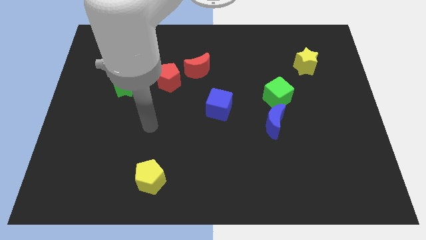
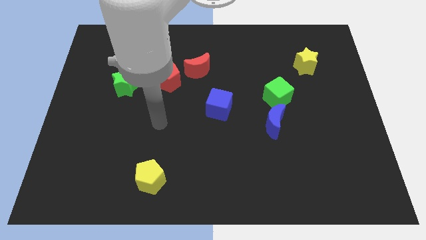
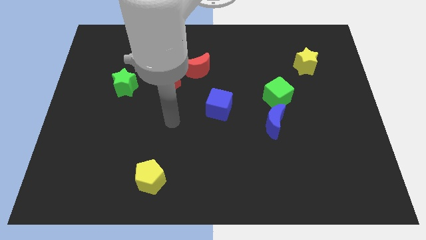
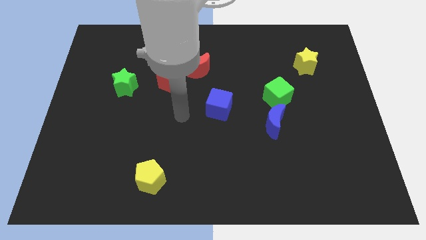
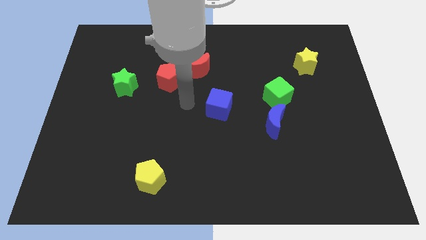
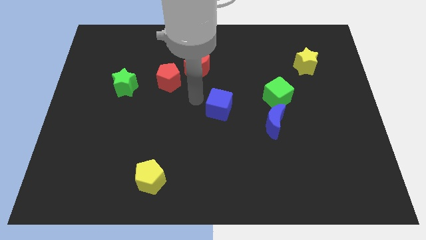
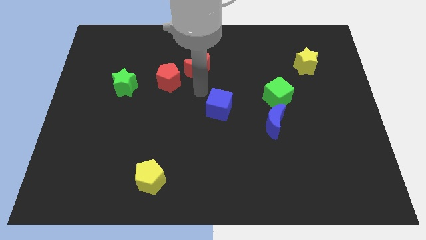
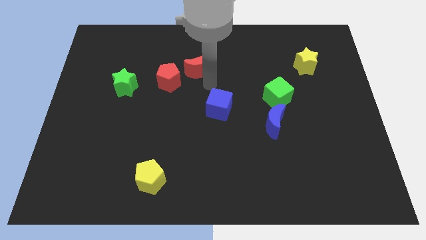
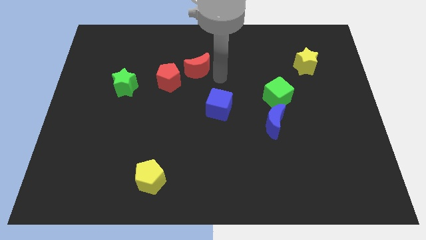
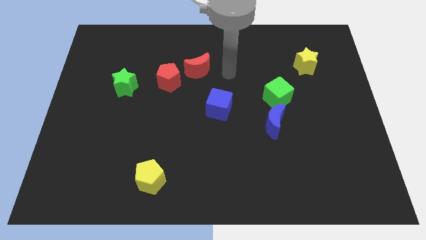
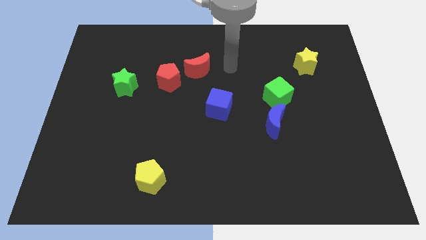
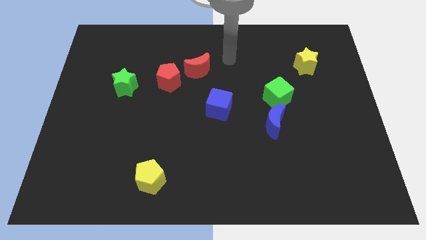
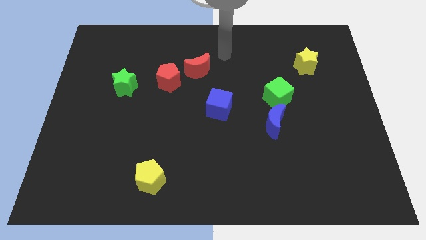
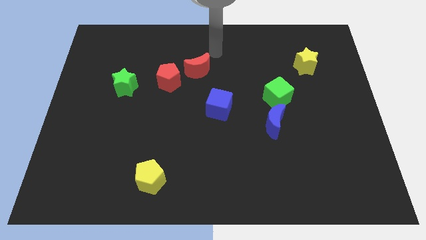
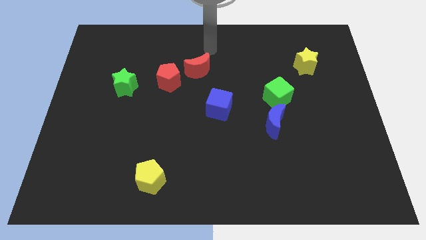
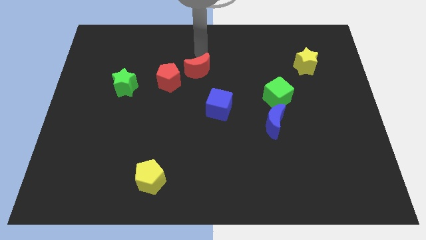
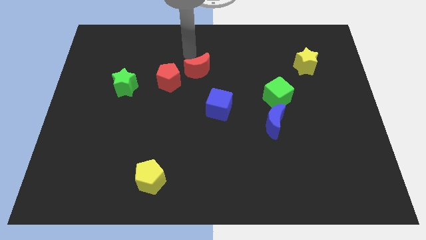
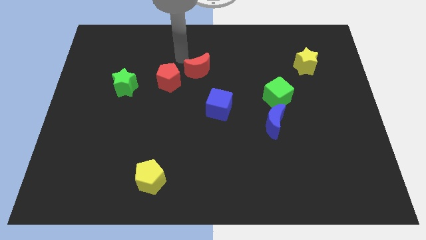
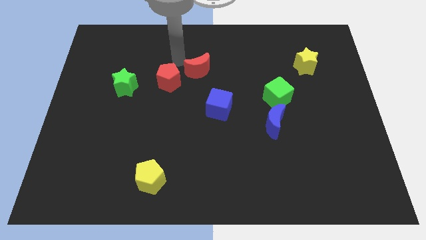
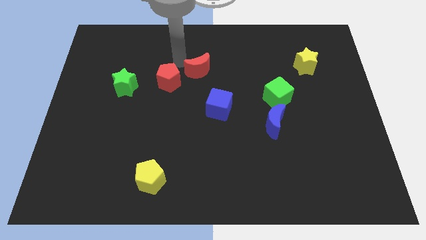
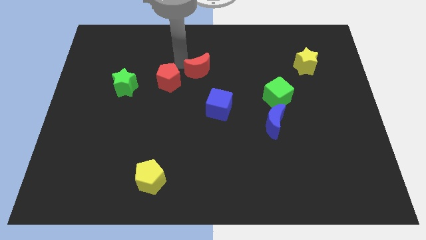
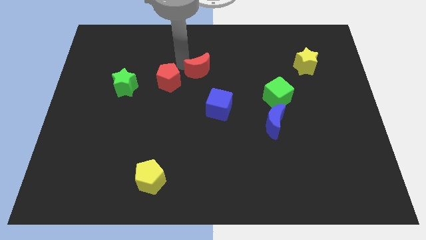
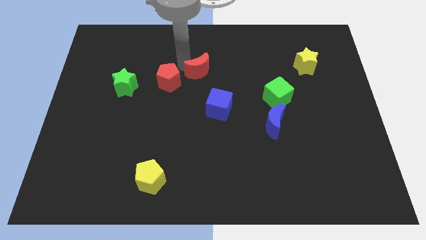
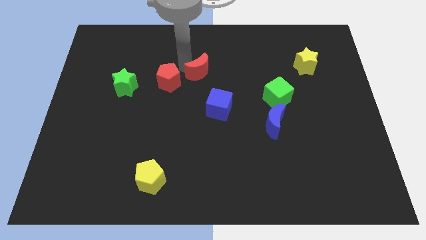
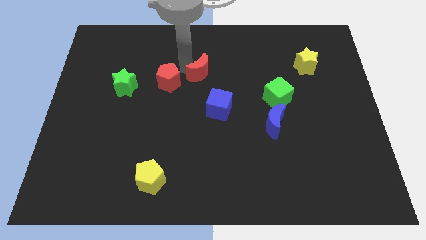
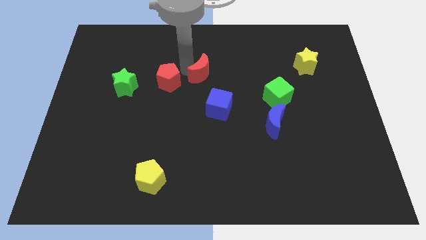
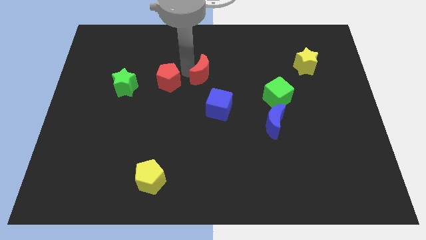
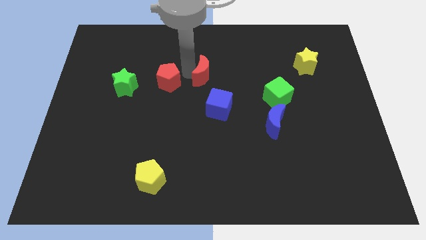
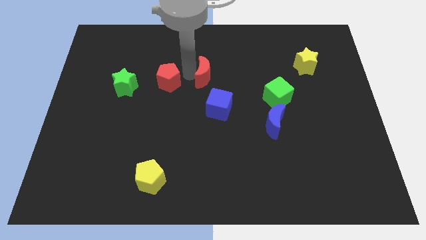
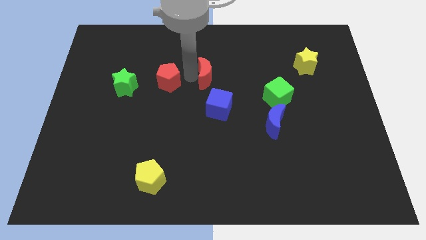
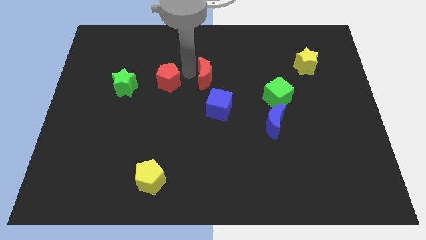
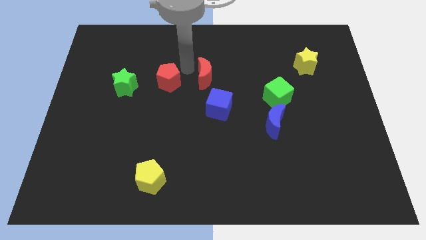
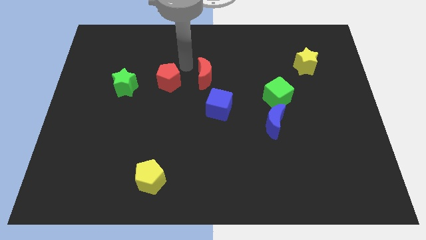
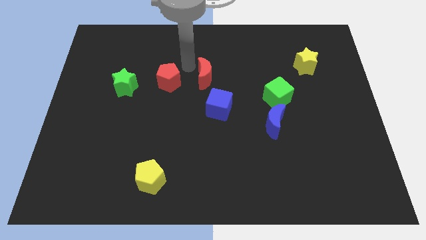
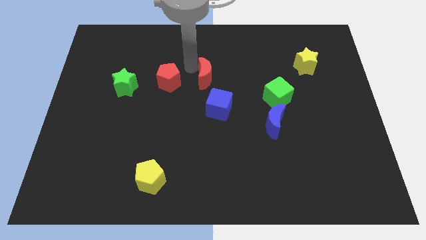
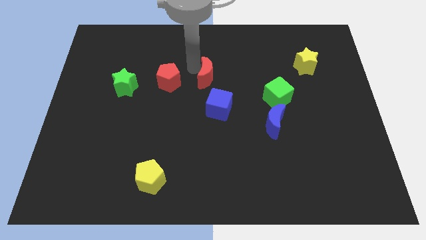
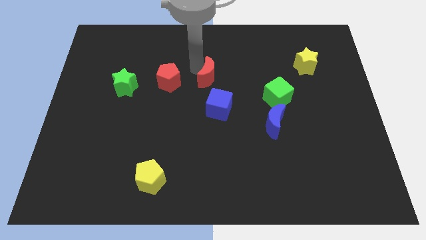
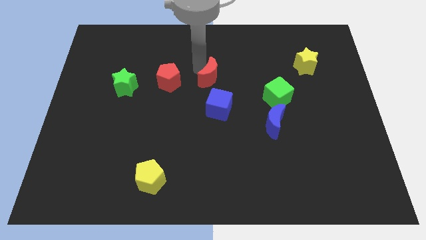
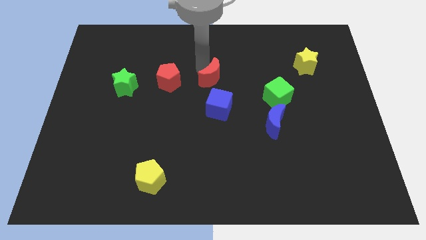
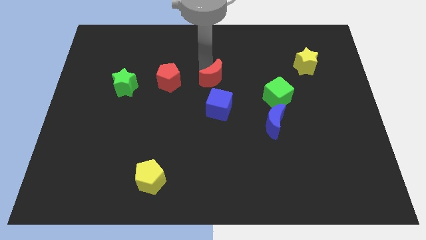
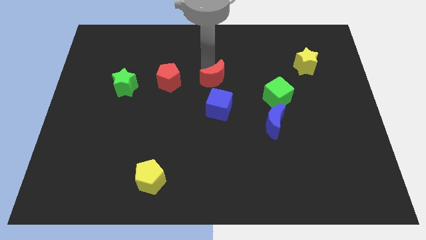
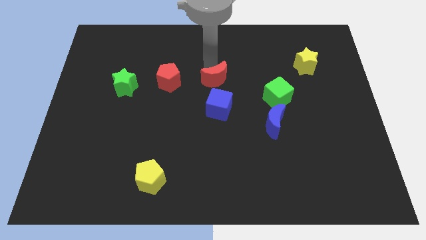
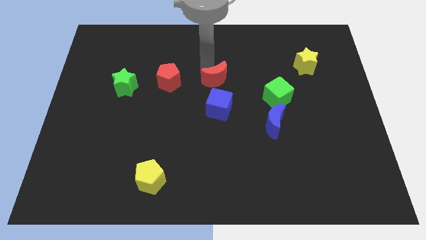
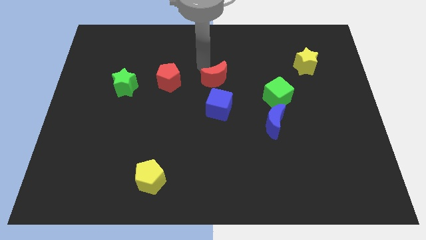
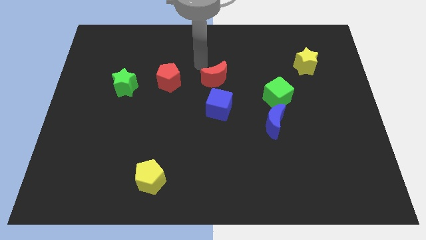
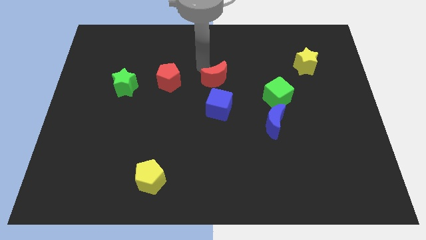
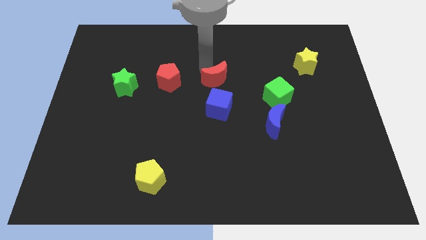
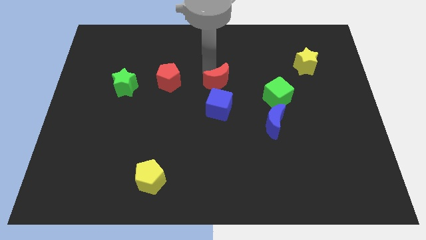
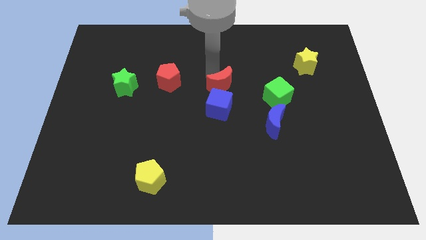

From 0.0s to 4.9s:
slide the red moon a little down and to the right diagonally

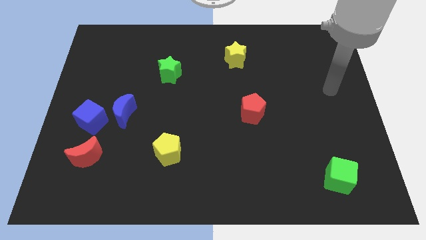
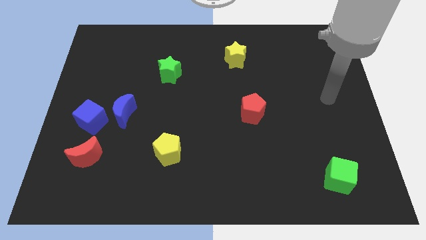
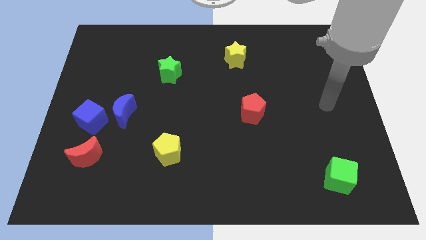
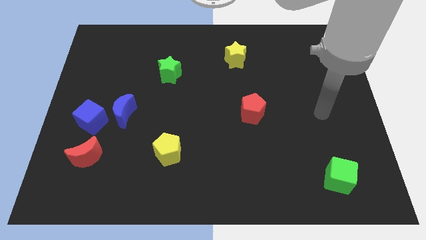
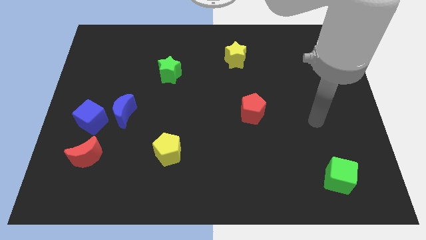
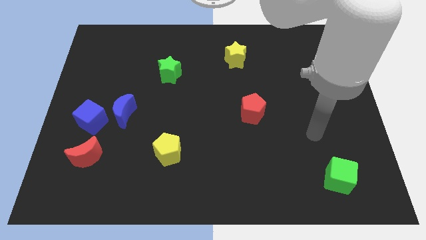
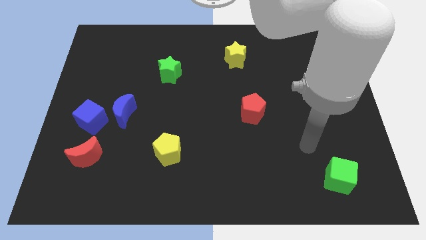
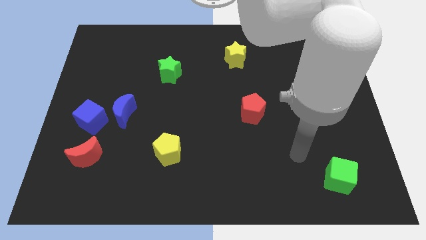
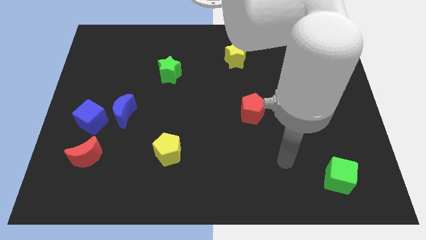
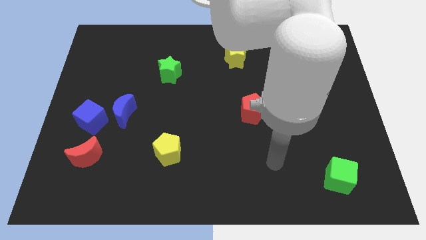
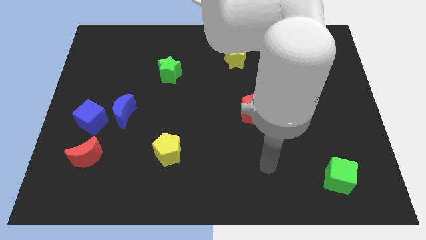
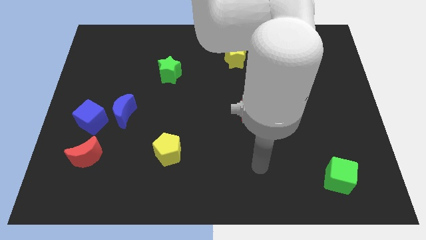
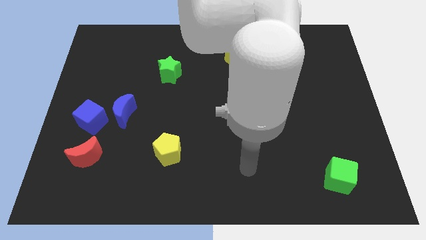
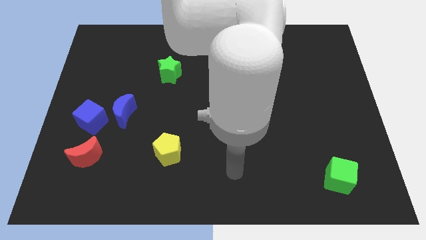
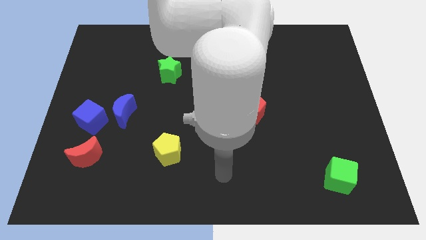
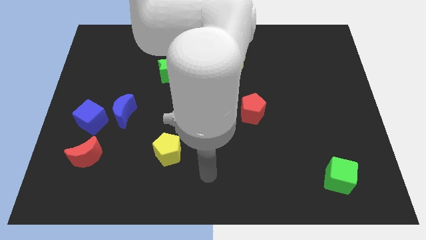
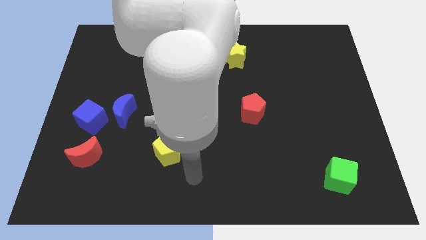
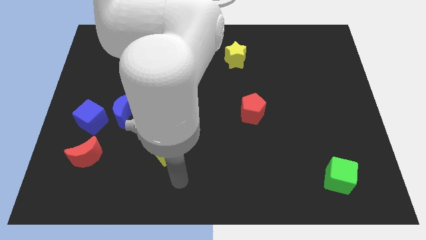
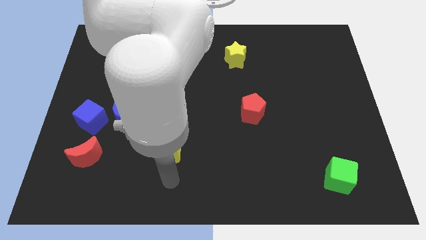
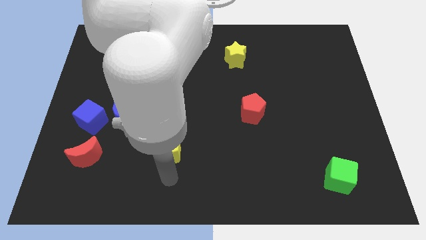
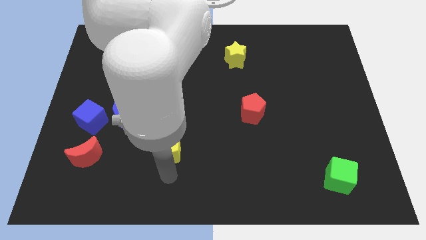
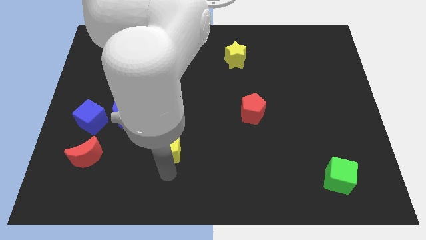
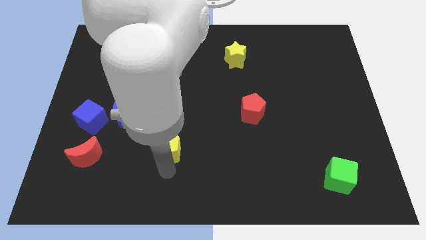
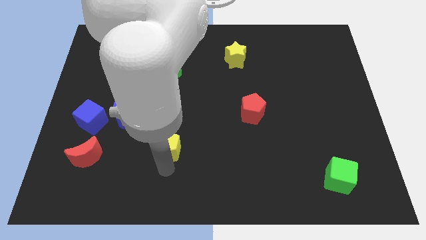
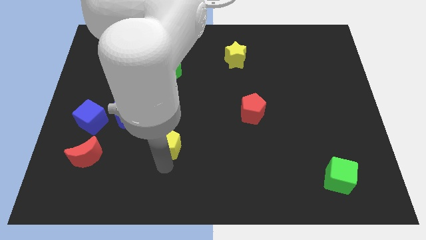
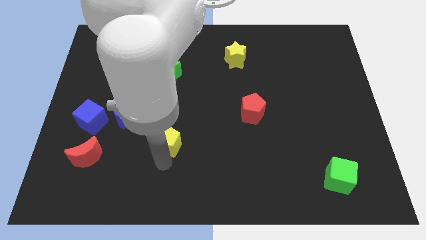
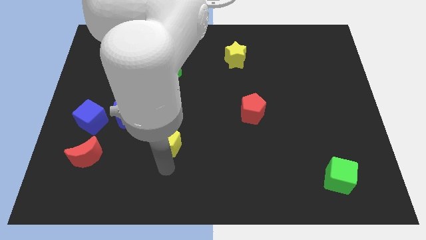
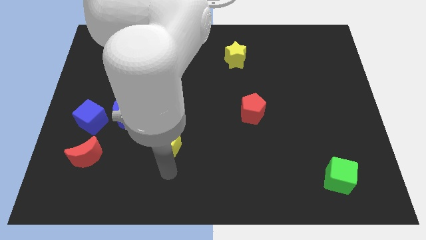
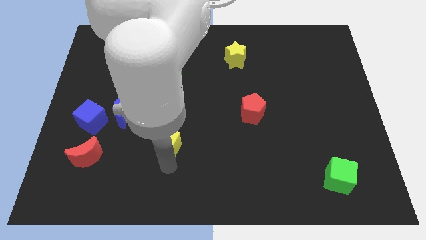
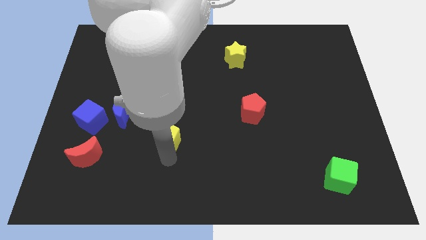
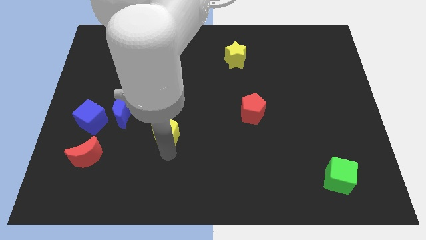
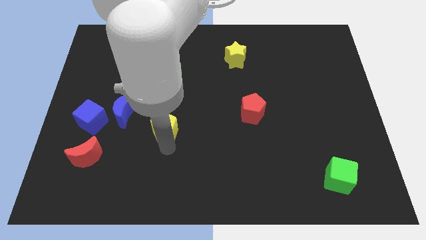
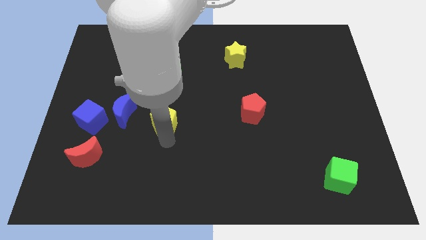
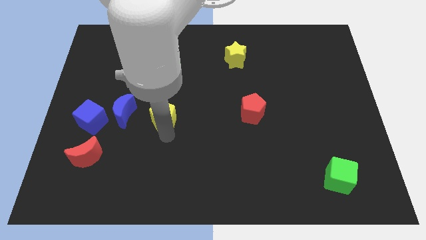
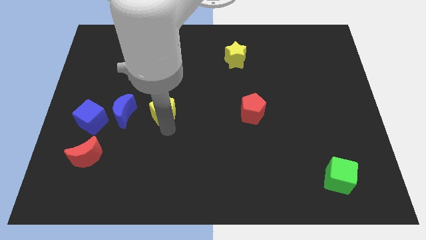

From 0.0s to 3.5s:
push the yellow pentagon up and then to the left slightly

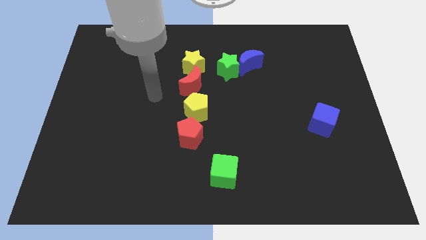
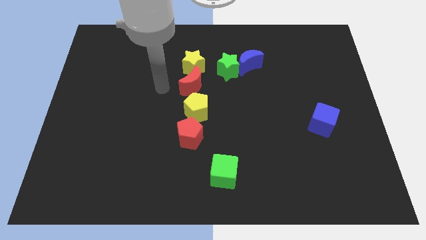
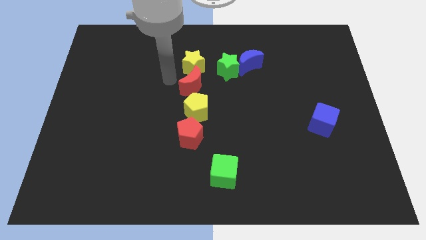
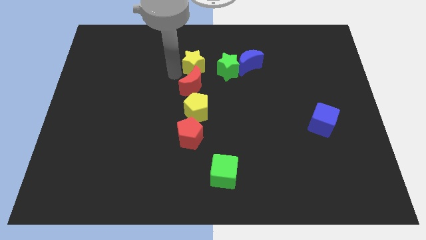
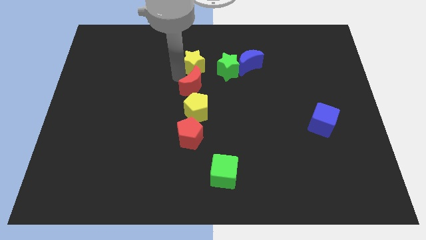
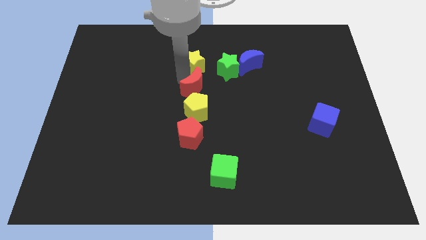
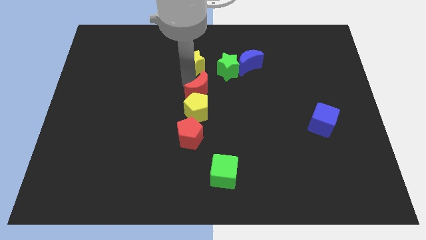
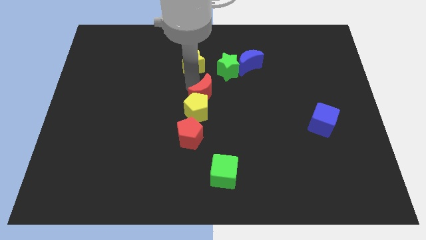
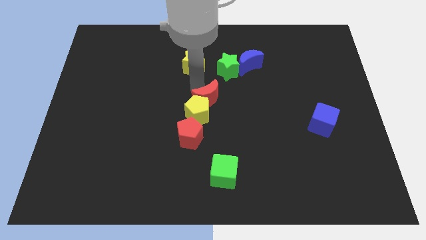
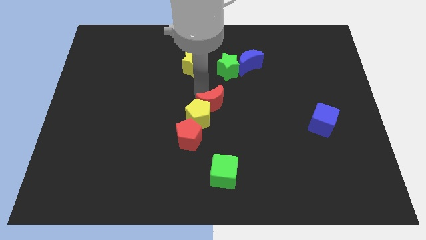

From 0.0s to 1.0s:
push the red moon down and right a bit
